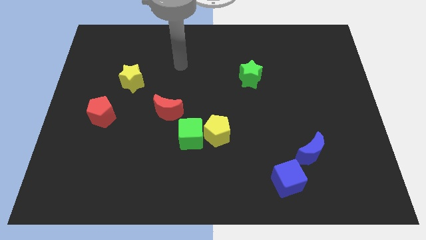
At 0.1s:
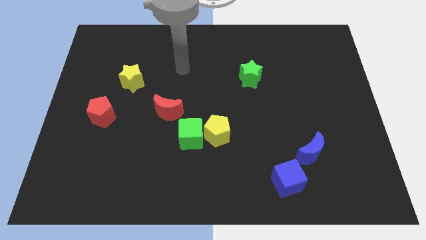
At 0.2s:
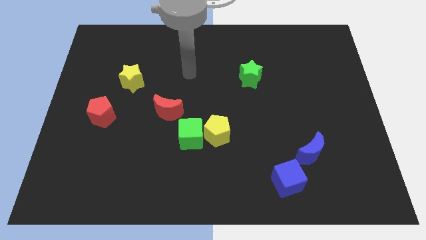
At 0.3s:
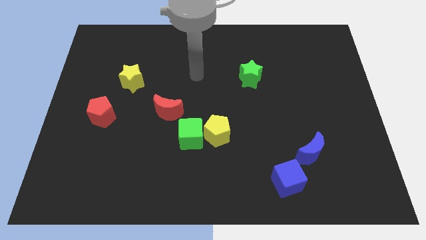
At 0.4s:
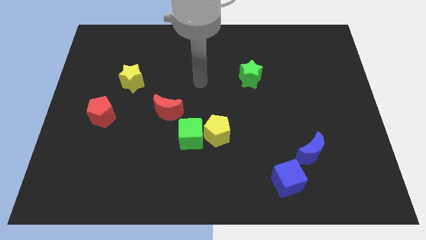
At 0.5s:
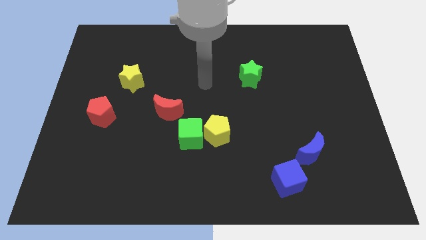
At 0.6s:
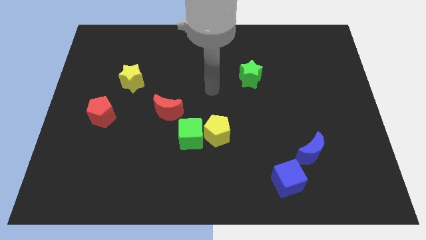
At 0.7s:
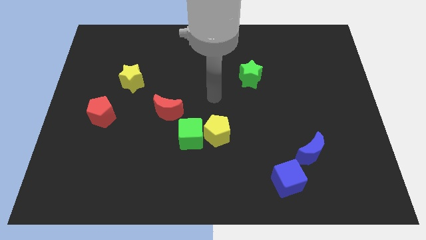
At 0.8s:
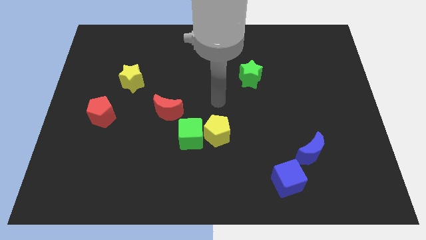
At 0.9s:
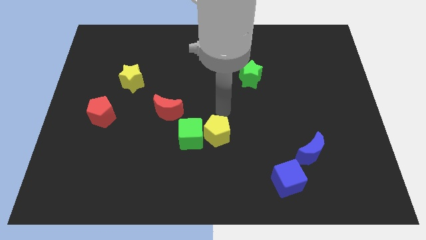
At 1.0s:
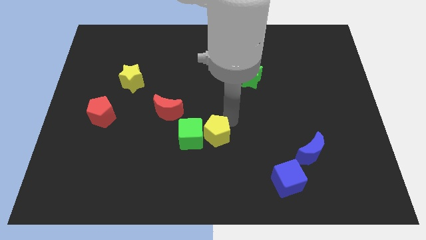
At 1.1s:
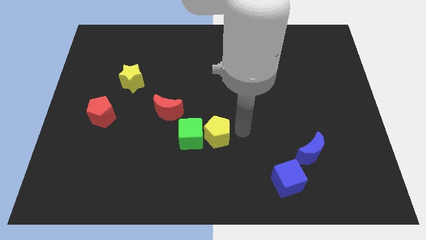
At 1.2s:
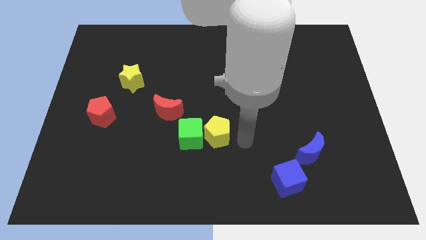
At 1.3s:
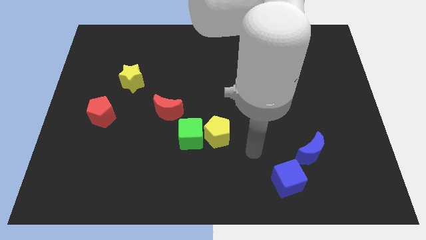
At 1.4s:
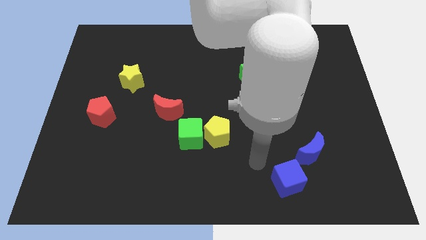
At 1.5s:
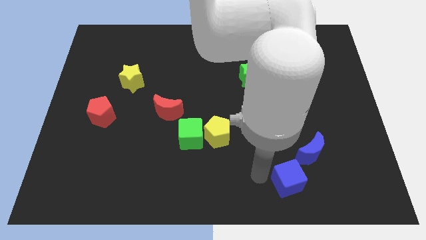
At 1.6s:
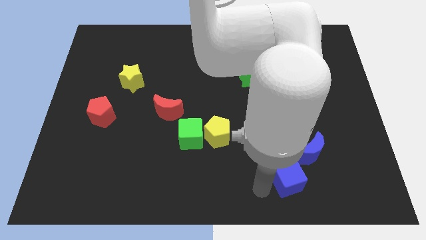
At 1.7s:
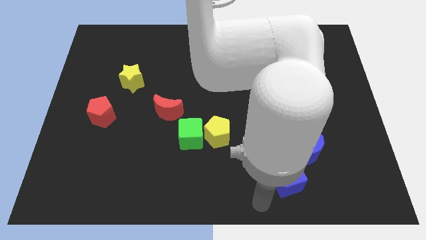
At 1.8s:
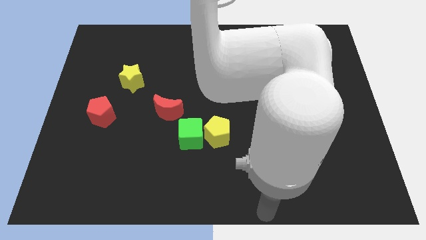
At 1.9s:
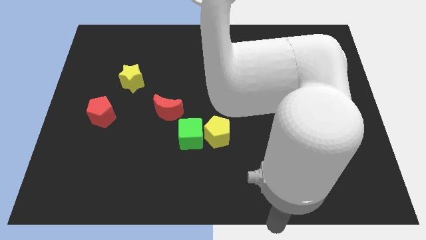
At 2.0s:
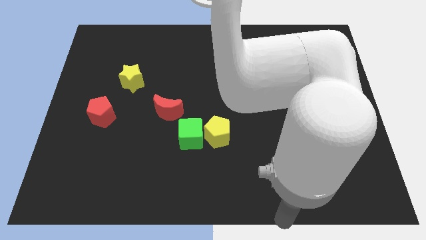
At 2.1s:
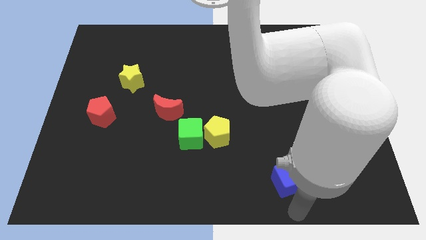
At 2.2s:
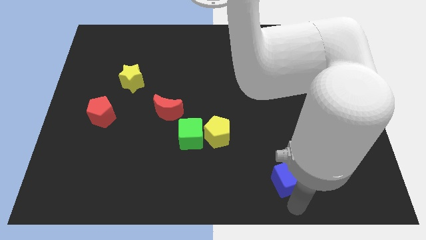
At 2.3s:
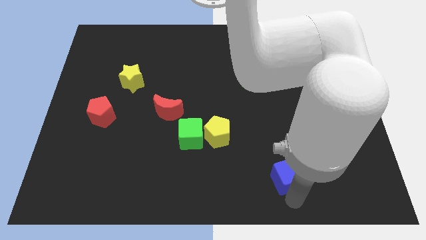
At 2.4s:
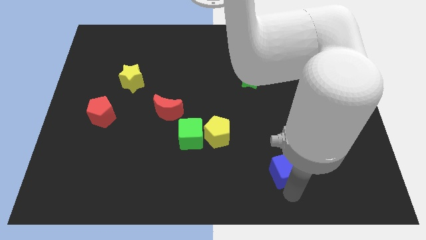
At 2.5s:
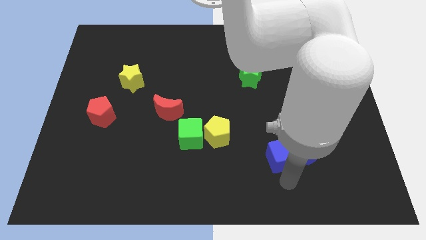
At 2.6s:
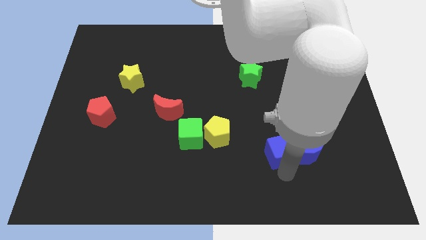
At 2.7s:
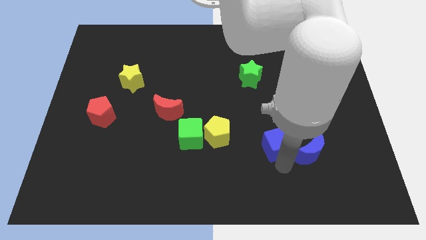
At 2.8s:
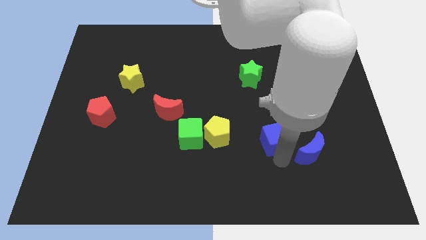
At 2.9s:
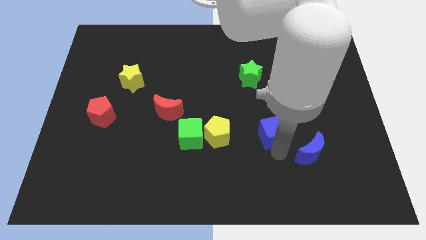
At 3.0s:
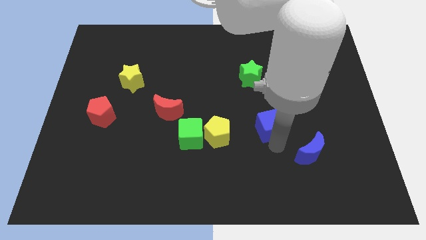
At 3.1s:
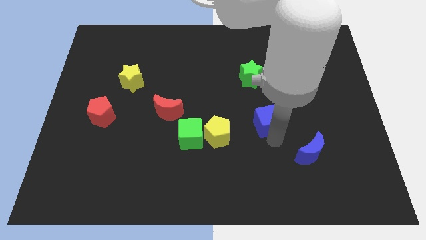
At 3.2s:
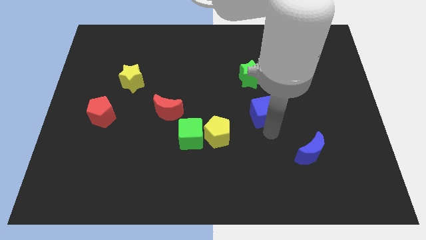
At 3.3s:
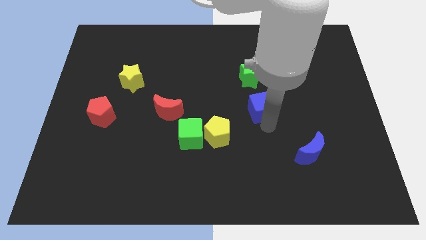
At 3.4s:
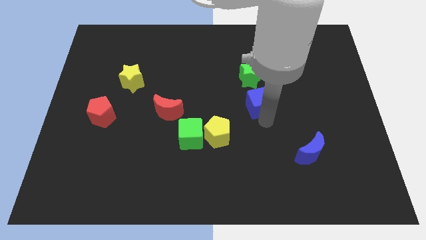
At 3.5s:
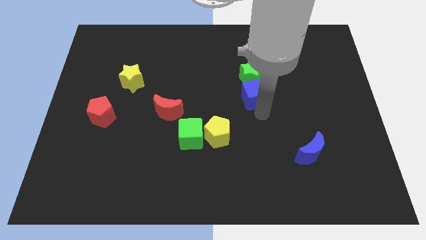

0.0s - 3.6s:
move the blue cube close to the green star

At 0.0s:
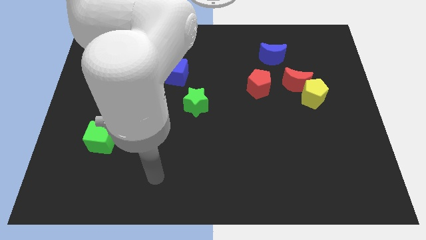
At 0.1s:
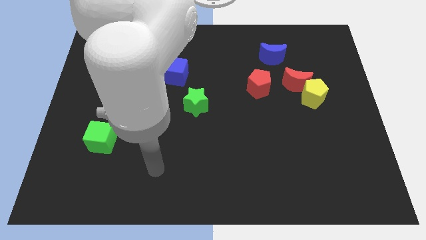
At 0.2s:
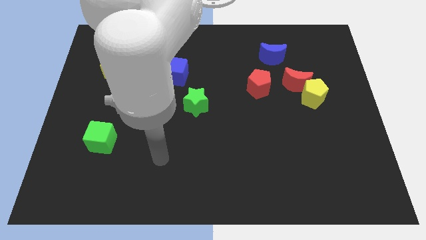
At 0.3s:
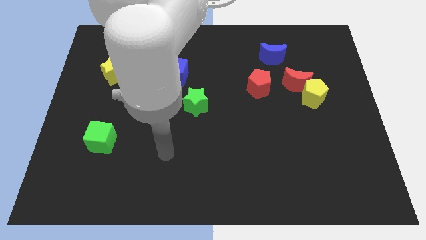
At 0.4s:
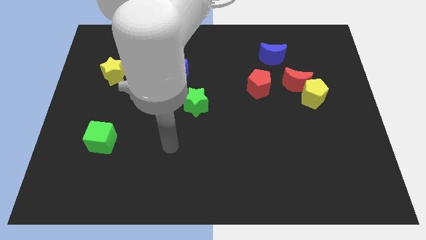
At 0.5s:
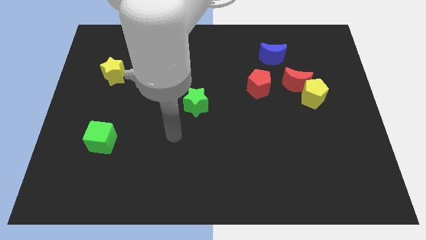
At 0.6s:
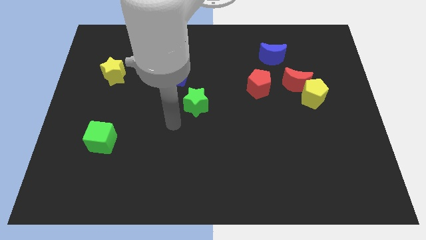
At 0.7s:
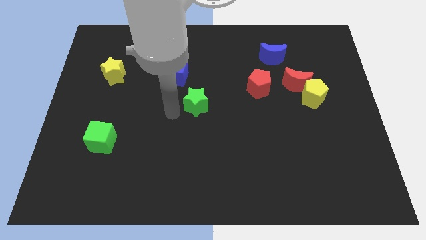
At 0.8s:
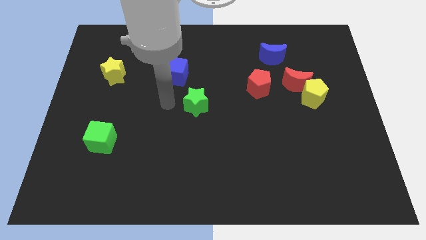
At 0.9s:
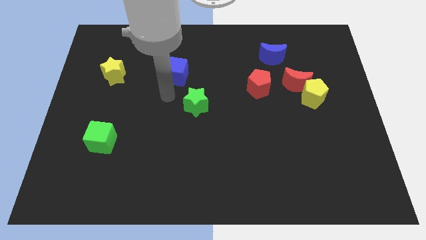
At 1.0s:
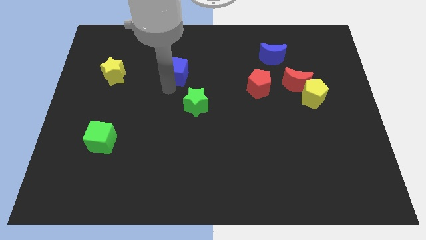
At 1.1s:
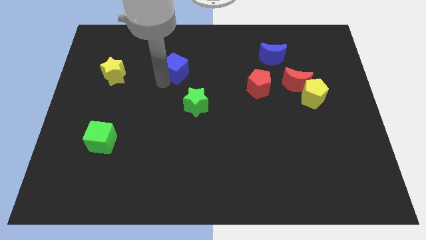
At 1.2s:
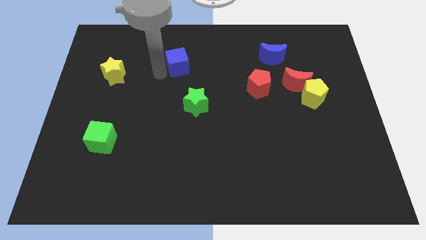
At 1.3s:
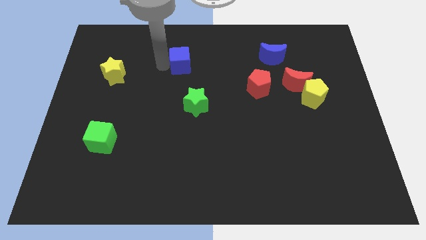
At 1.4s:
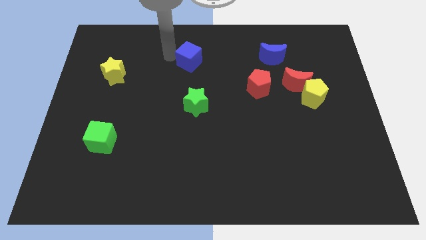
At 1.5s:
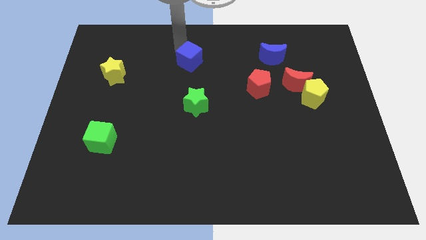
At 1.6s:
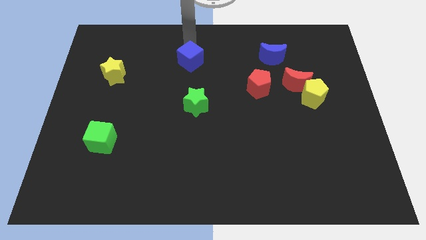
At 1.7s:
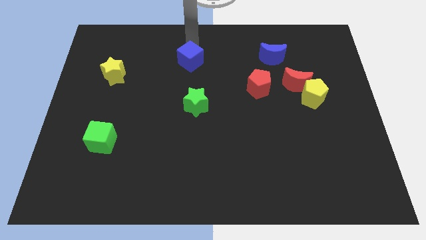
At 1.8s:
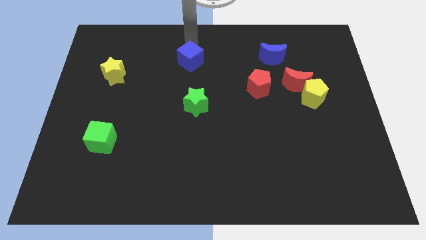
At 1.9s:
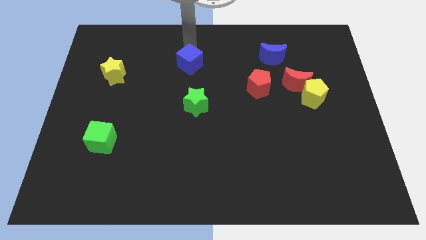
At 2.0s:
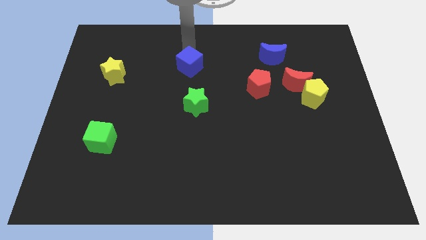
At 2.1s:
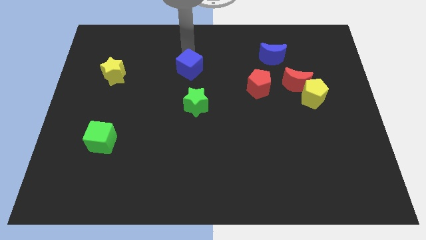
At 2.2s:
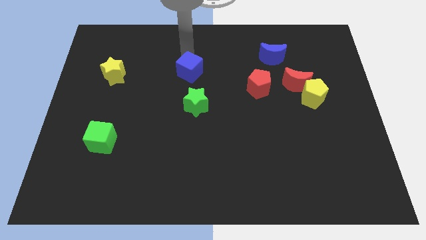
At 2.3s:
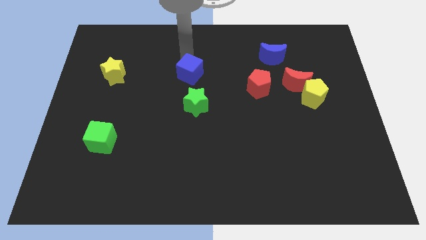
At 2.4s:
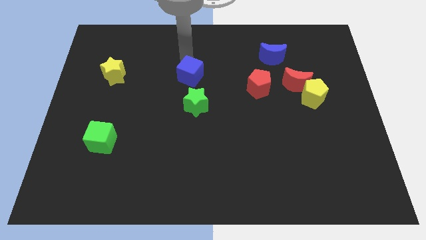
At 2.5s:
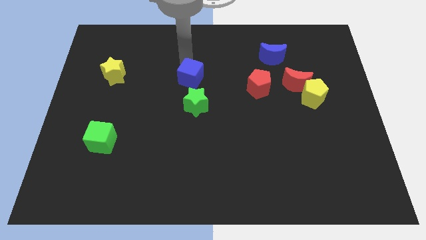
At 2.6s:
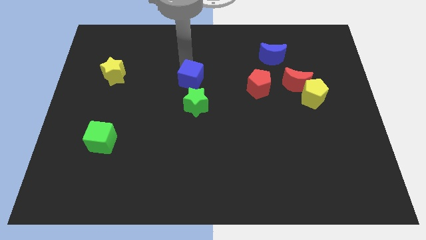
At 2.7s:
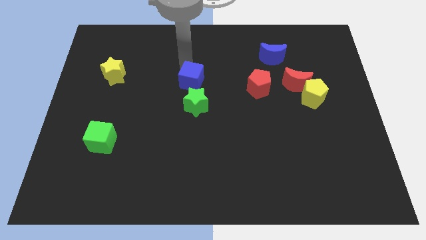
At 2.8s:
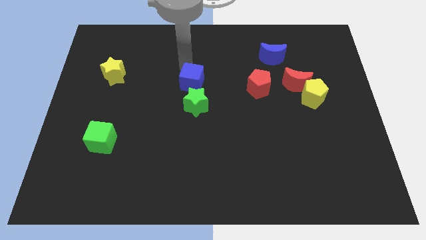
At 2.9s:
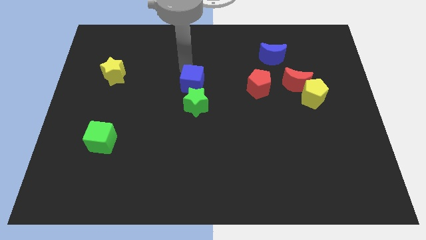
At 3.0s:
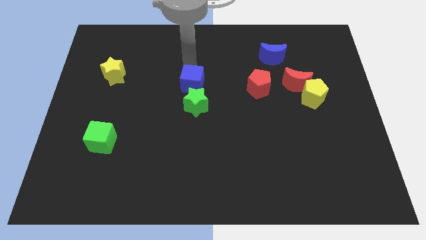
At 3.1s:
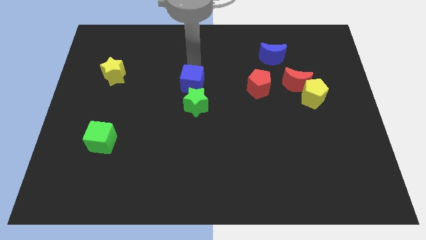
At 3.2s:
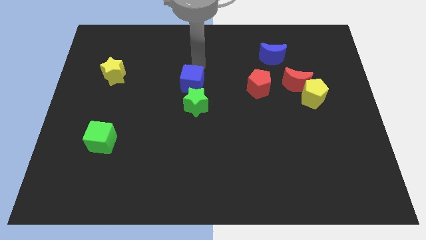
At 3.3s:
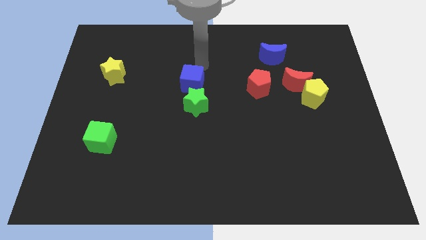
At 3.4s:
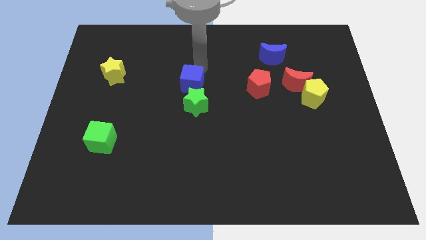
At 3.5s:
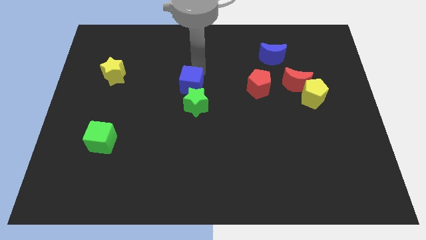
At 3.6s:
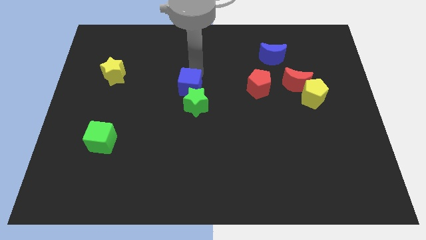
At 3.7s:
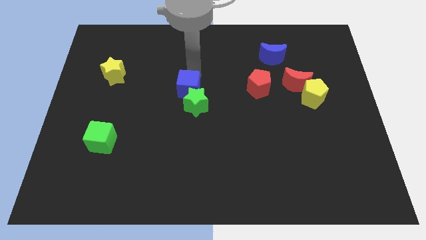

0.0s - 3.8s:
move the blue cube towards the green star

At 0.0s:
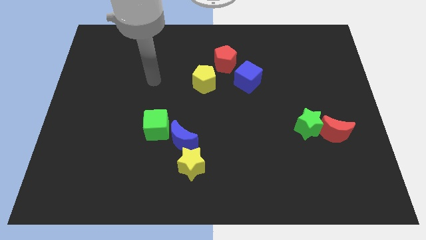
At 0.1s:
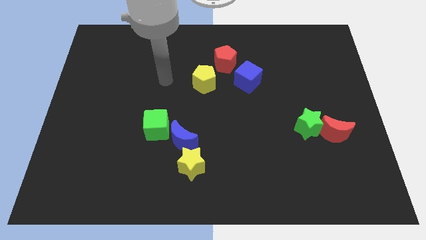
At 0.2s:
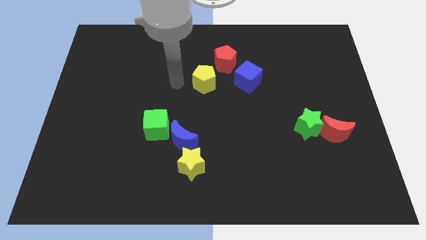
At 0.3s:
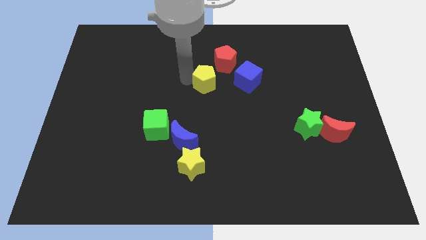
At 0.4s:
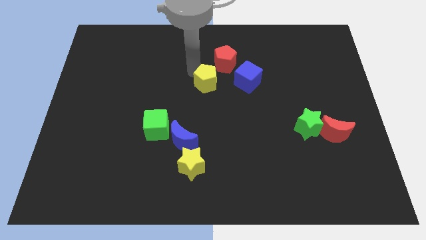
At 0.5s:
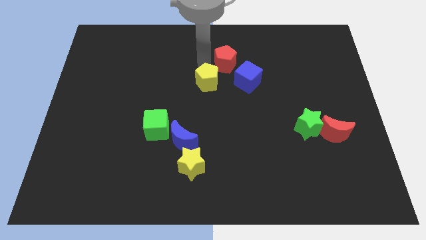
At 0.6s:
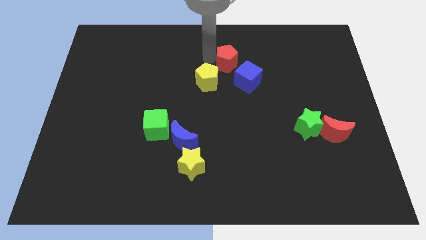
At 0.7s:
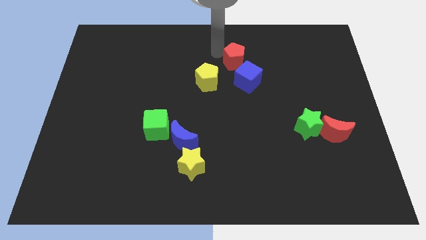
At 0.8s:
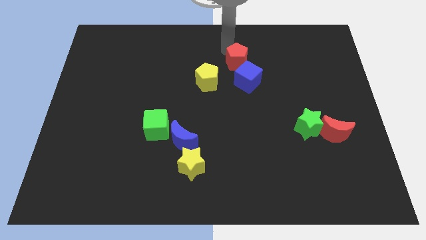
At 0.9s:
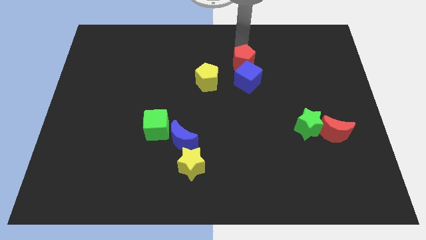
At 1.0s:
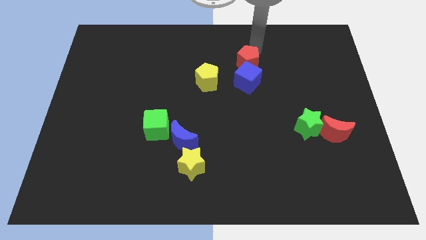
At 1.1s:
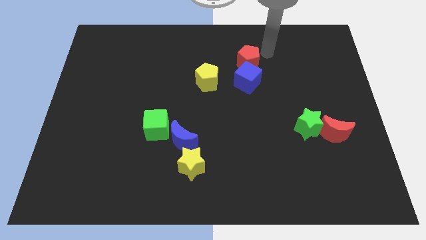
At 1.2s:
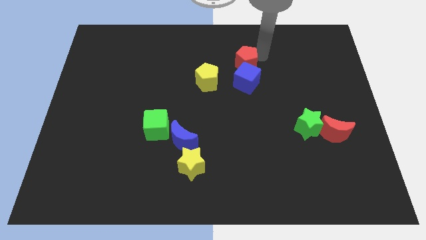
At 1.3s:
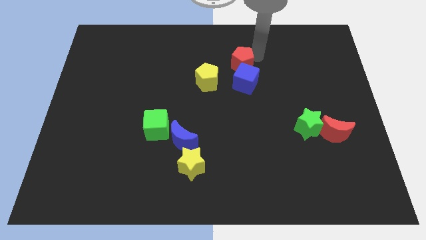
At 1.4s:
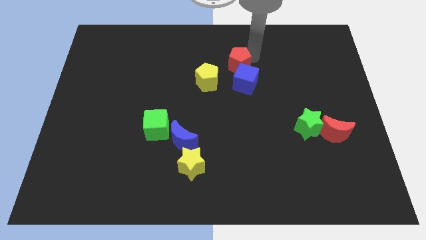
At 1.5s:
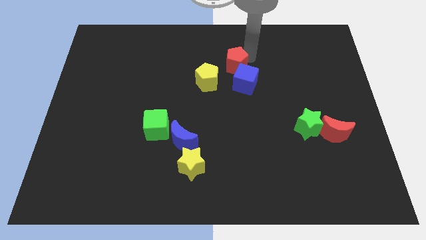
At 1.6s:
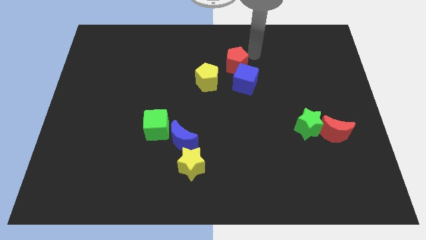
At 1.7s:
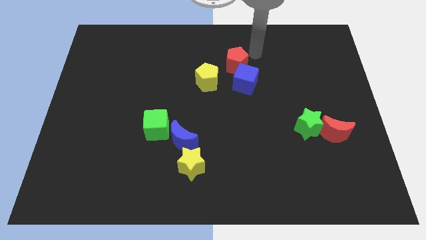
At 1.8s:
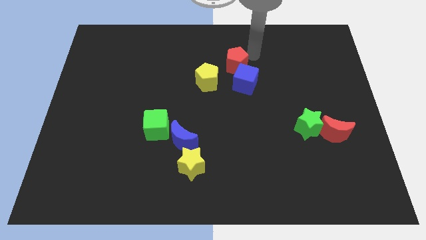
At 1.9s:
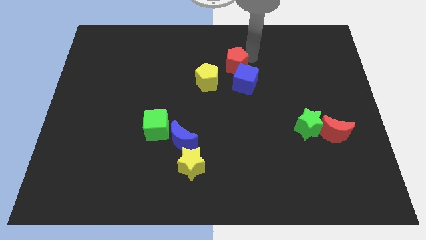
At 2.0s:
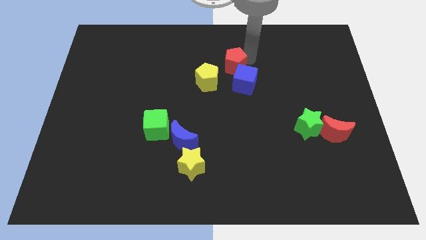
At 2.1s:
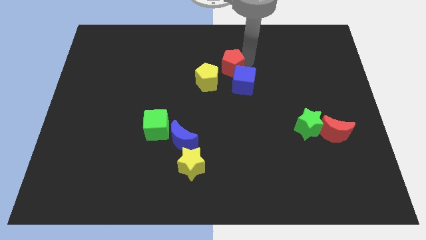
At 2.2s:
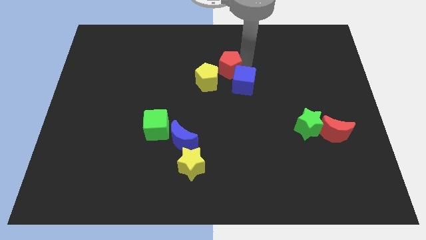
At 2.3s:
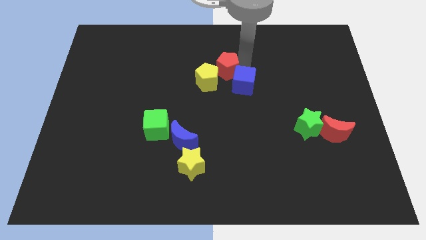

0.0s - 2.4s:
slide the red pentagon next to the yellow pentagon
